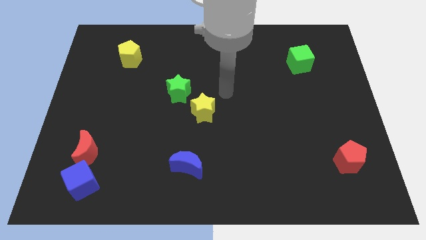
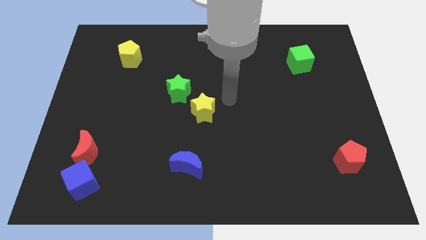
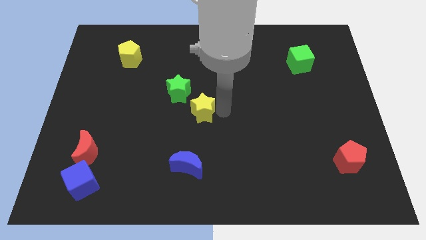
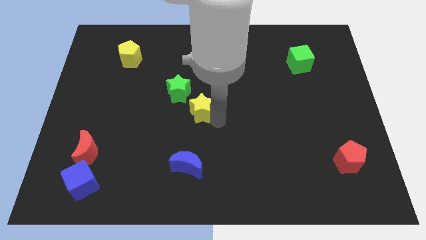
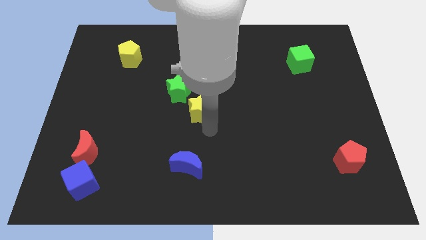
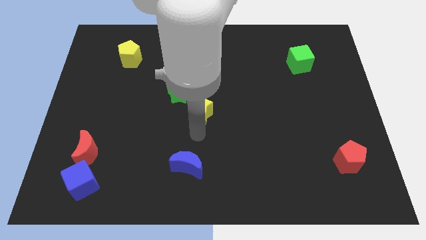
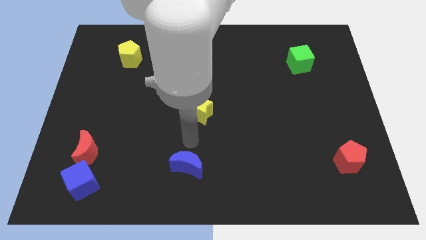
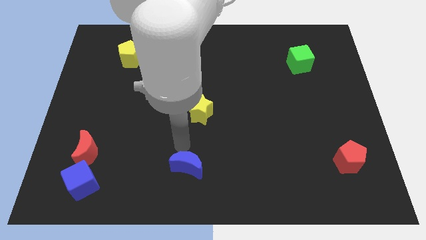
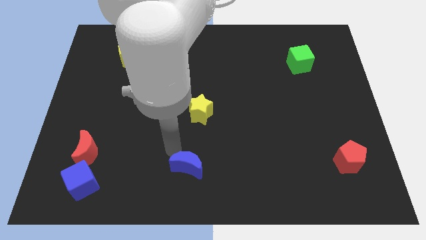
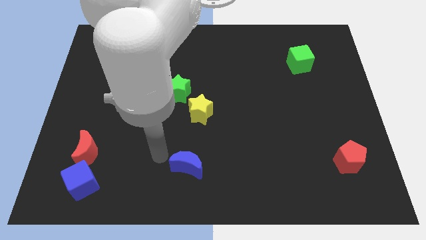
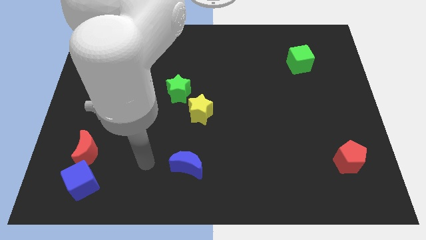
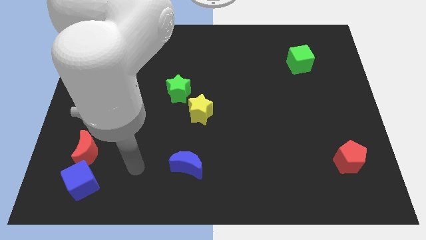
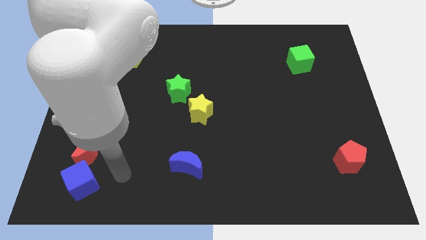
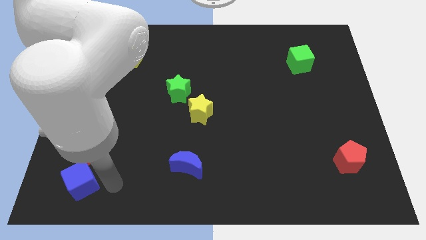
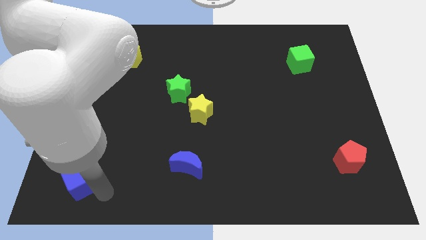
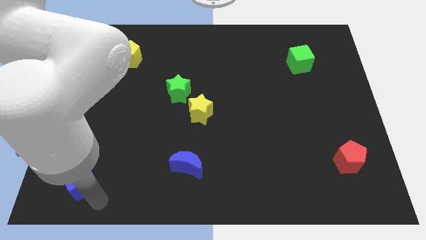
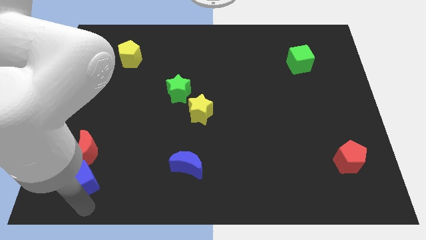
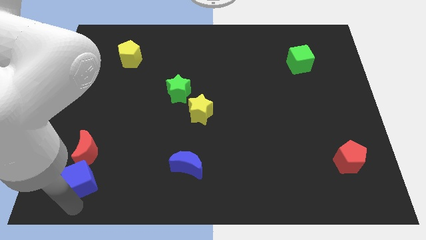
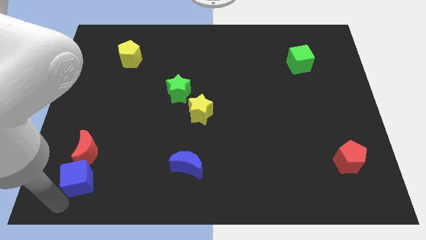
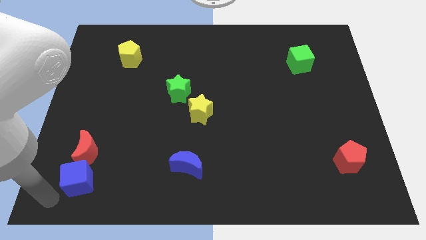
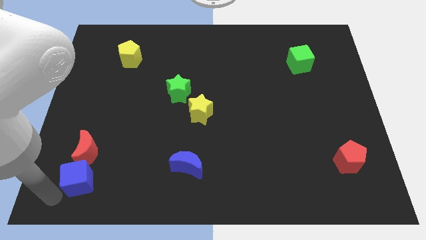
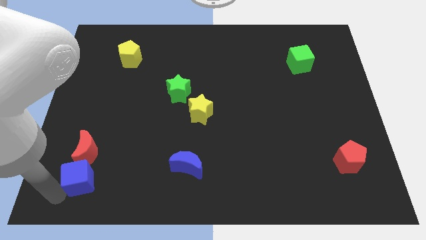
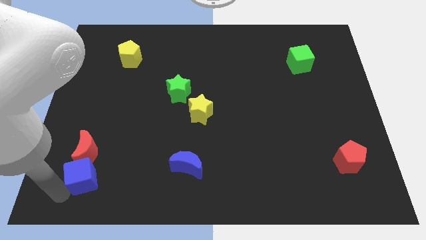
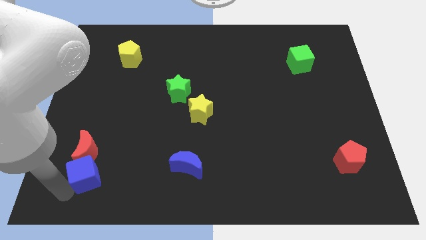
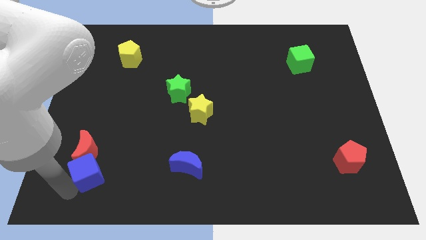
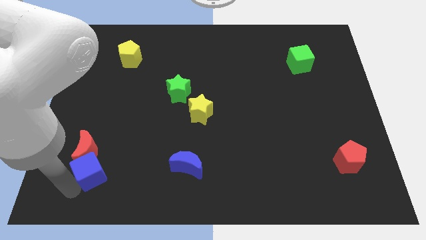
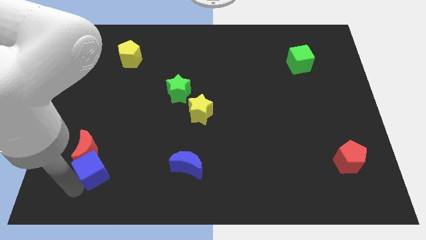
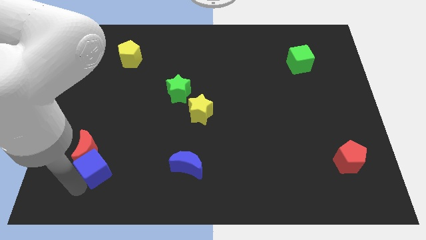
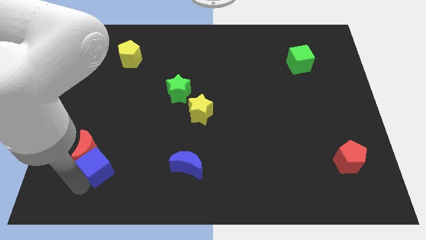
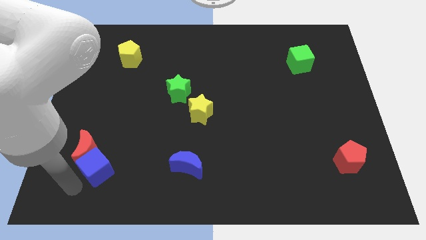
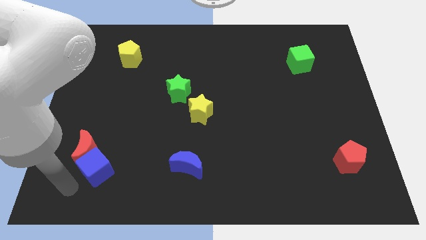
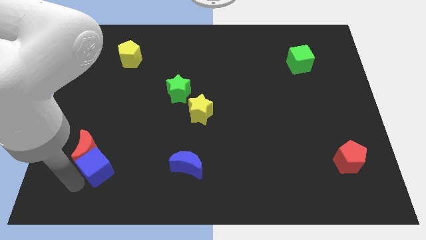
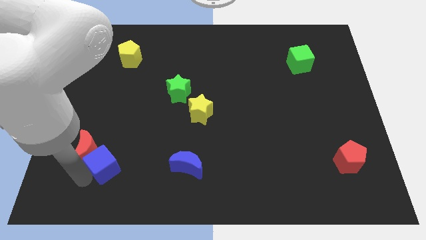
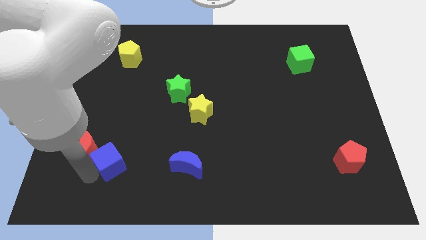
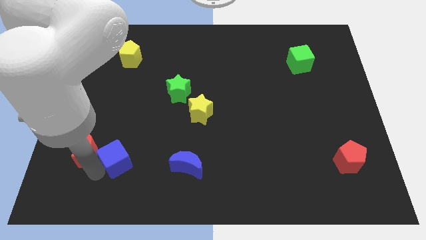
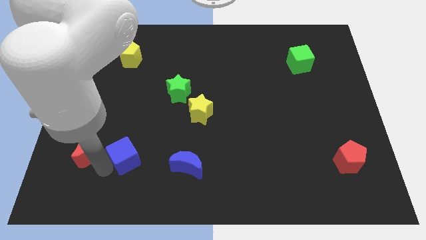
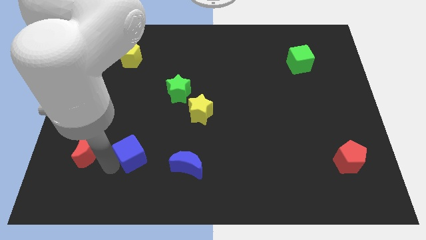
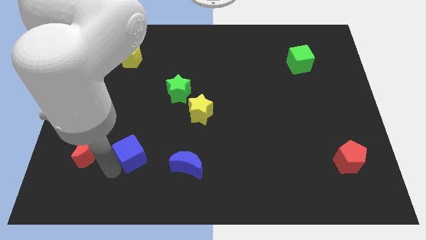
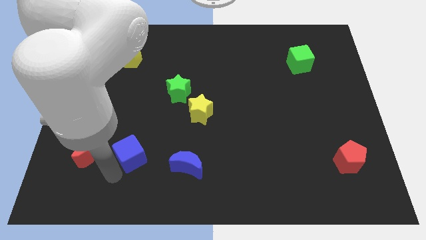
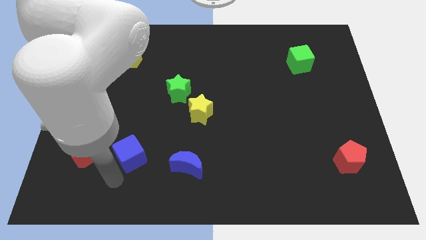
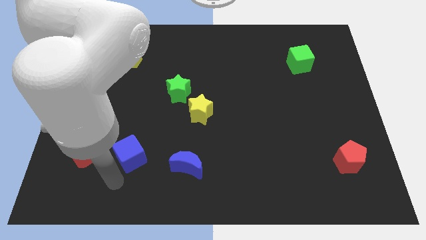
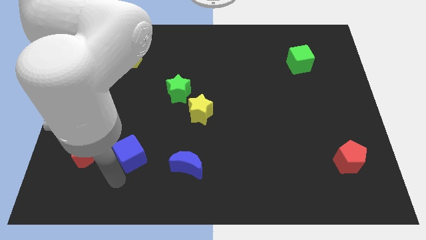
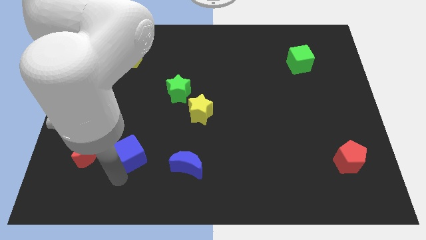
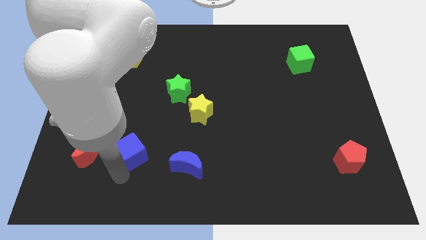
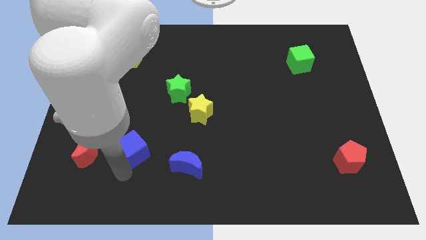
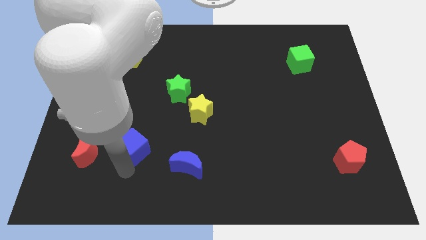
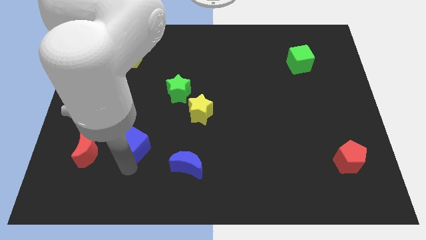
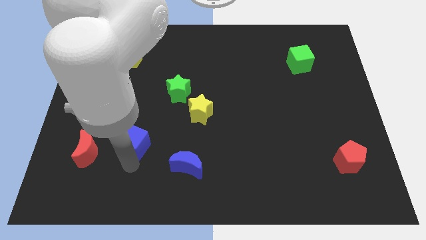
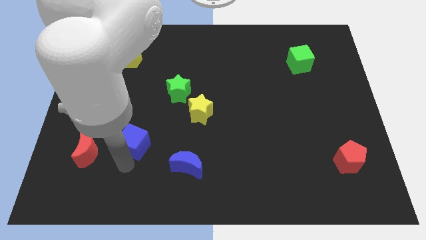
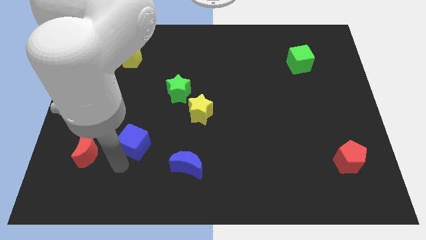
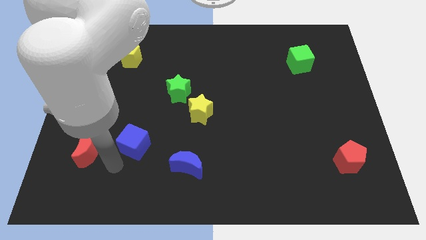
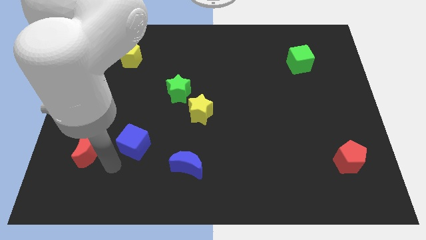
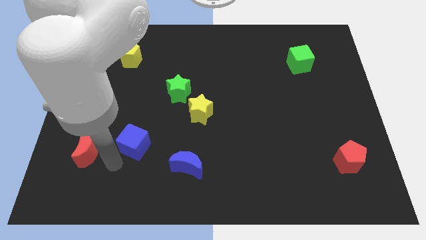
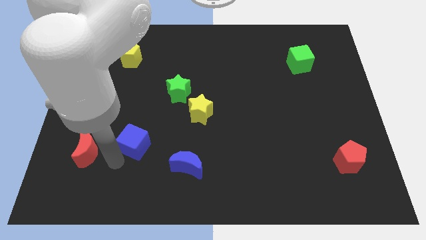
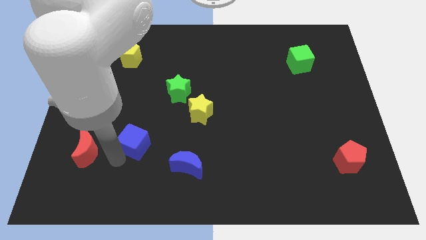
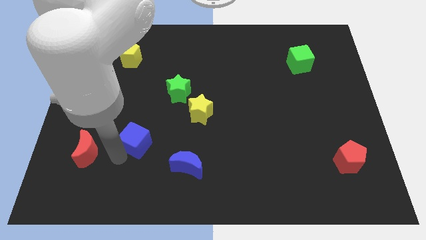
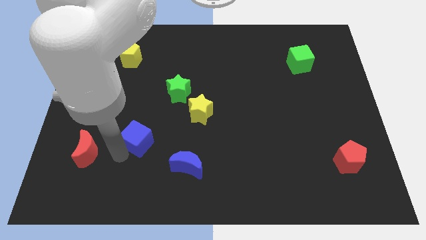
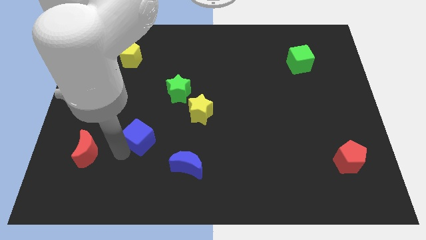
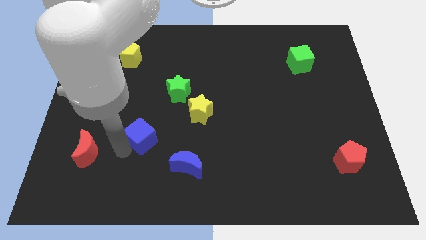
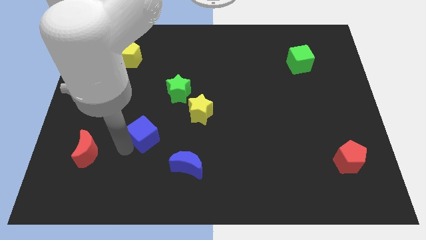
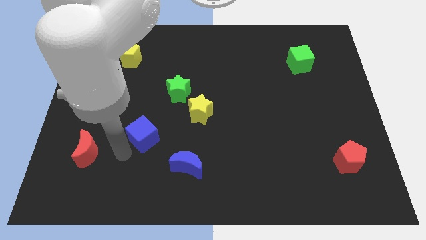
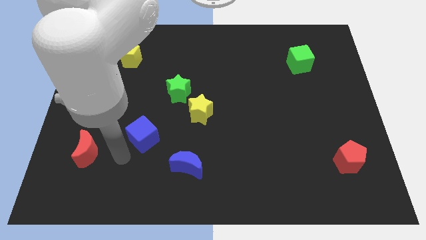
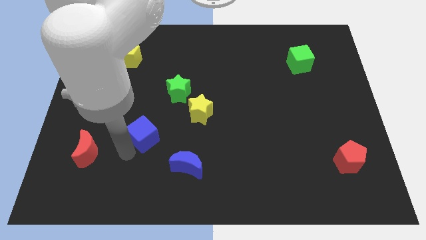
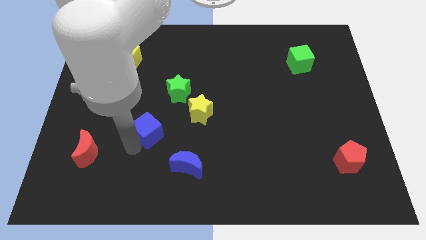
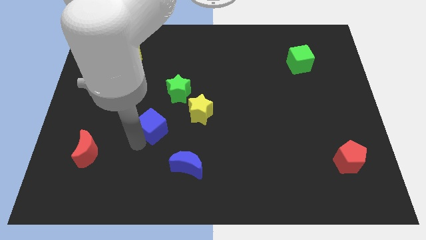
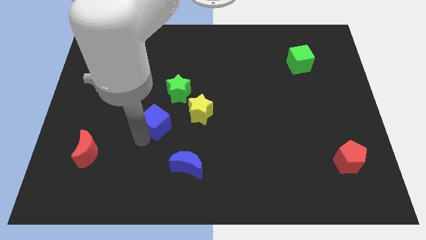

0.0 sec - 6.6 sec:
slide the blue cube upwards and then right

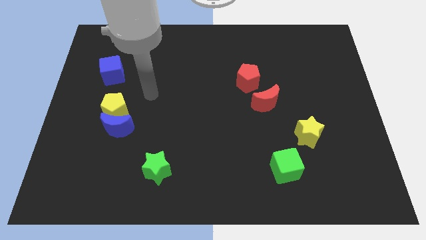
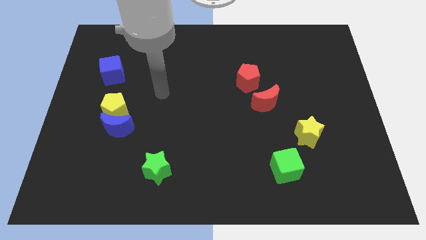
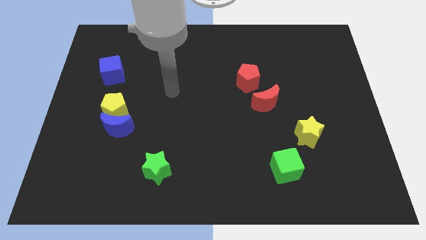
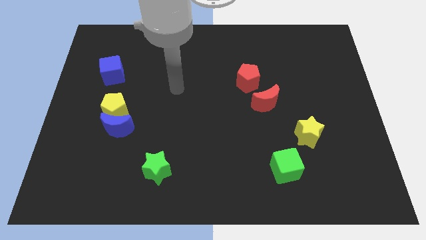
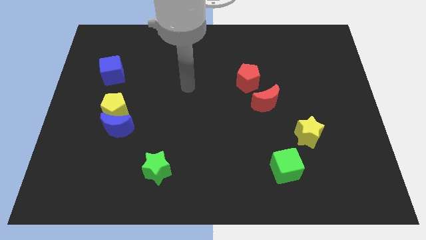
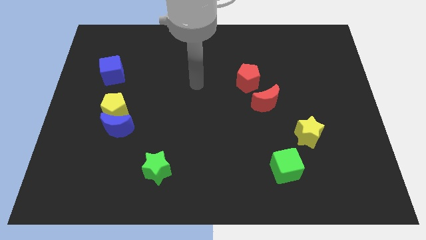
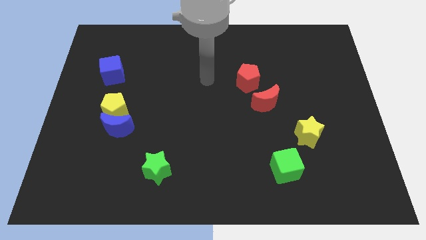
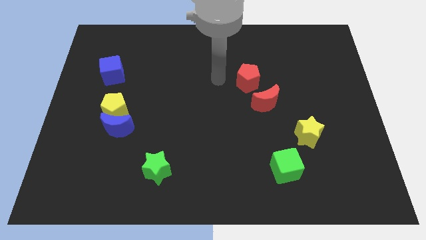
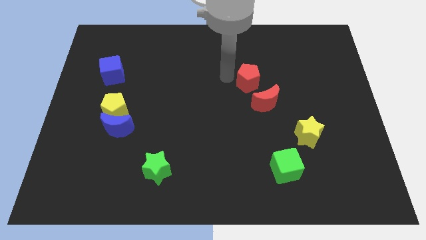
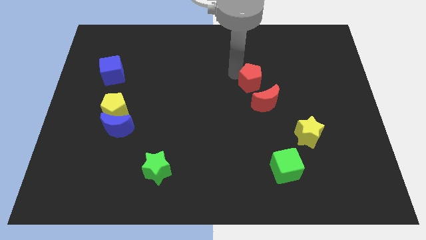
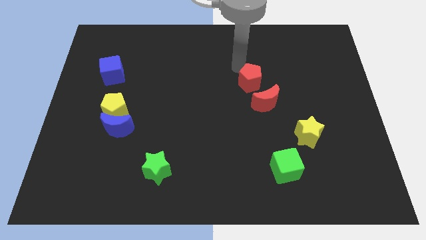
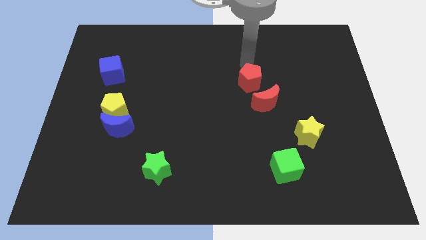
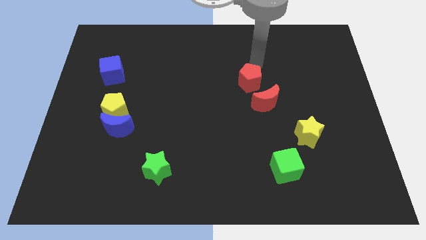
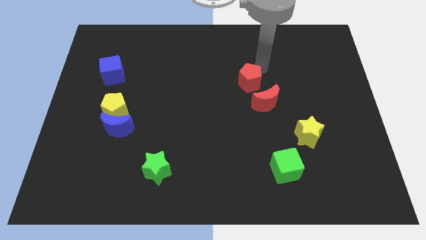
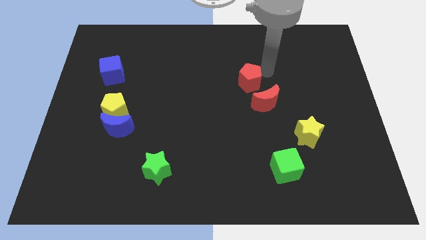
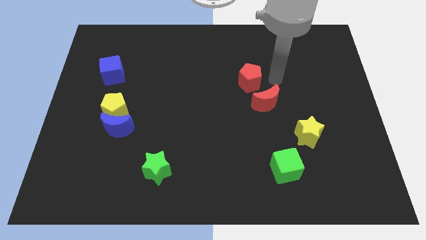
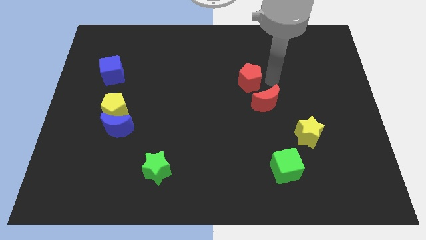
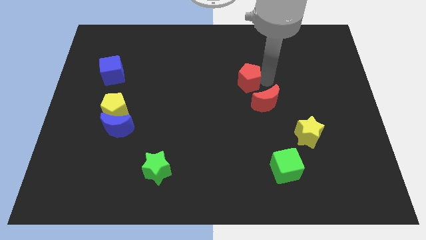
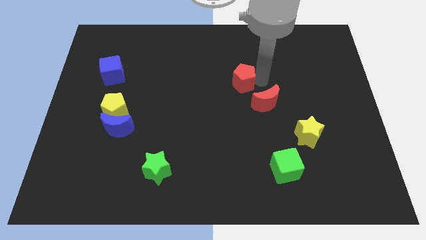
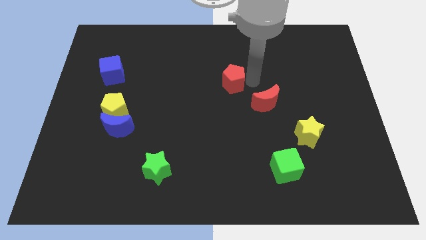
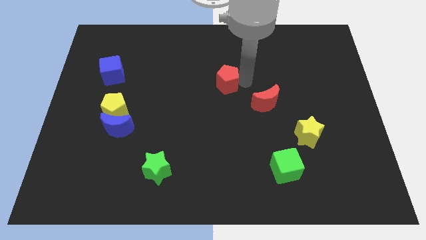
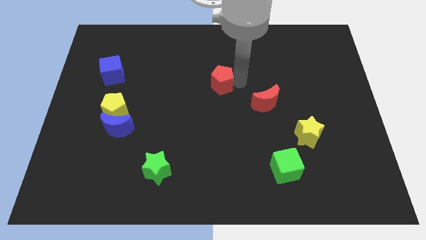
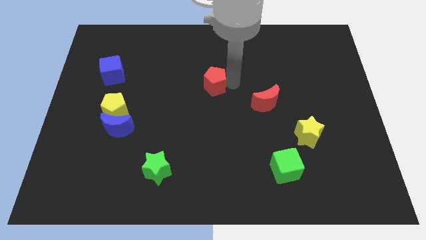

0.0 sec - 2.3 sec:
slightly push the red pentagon to the left
